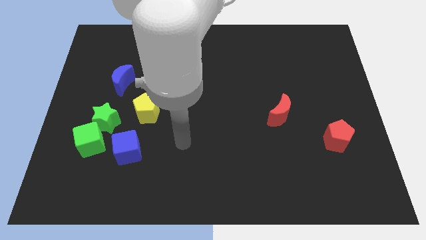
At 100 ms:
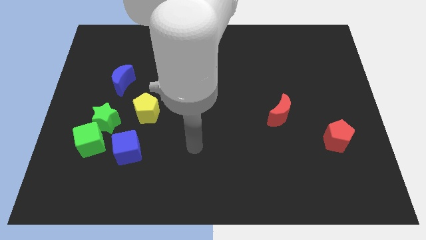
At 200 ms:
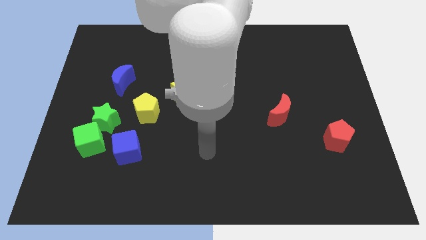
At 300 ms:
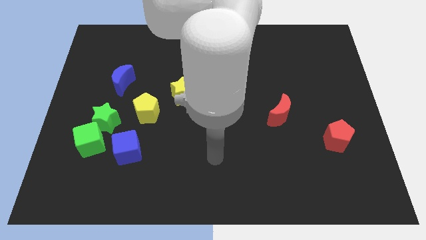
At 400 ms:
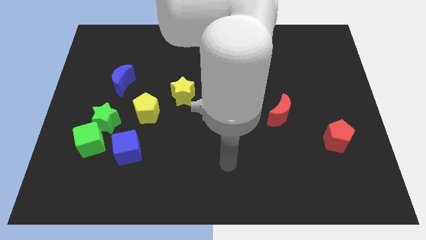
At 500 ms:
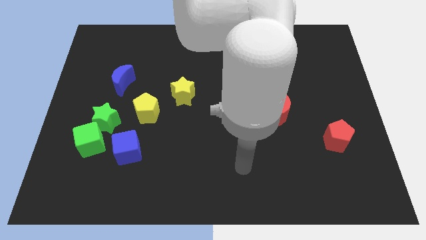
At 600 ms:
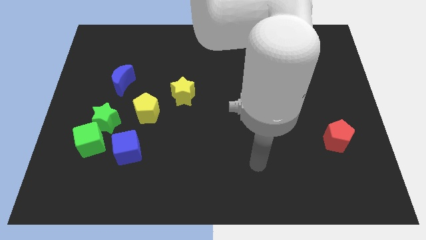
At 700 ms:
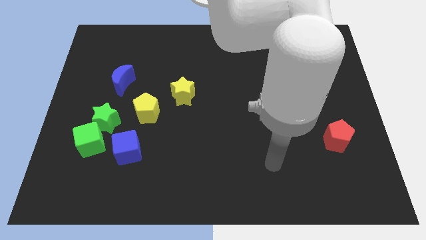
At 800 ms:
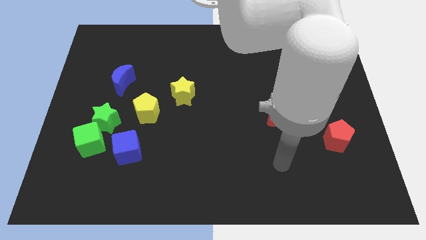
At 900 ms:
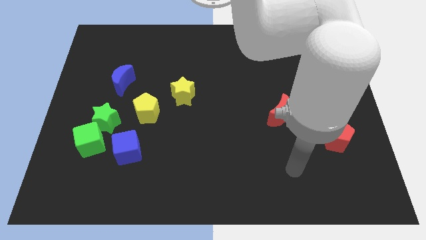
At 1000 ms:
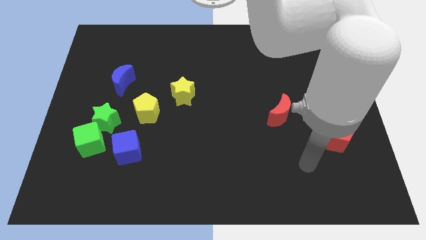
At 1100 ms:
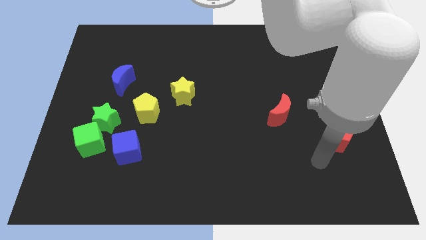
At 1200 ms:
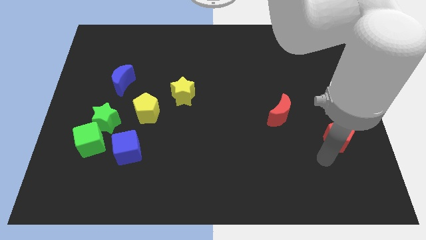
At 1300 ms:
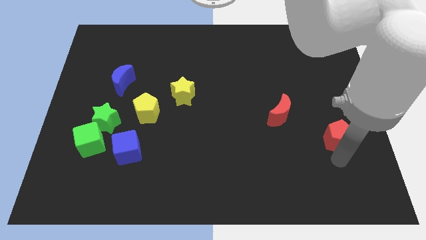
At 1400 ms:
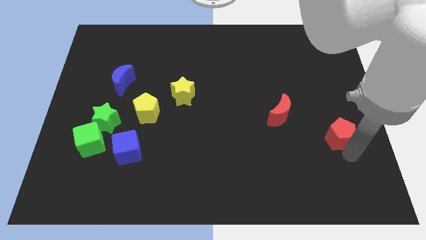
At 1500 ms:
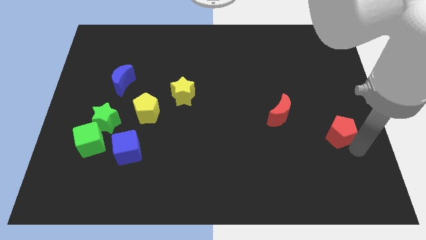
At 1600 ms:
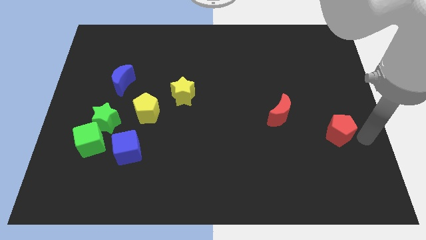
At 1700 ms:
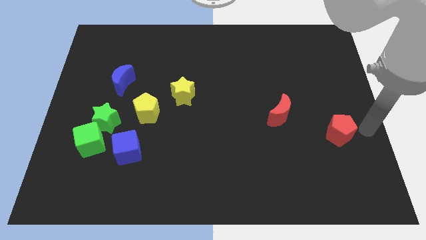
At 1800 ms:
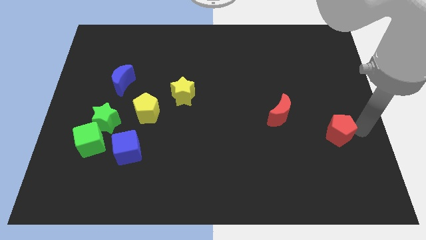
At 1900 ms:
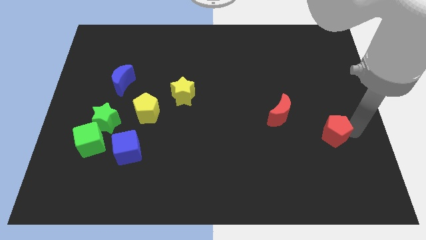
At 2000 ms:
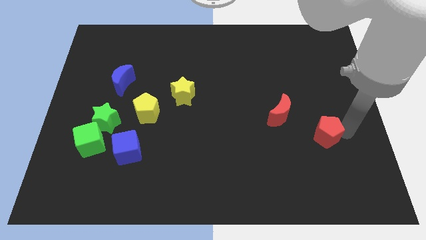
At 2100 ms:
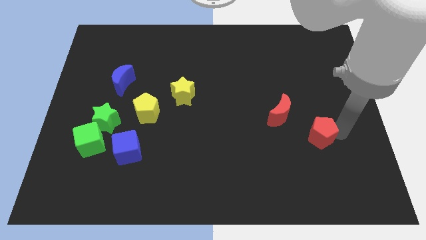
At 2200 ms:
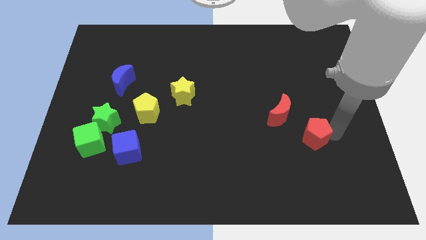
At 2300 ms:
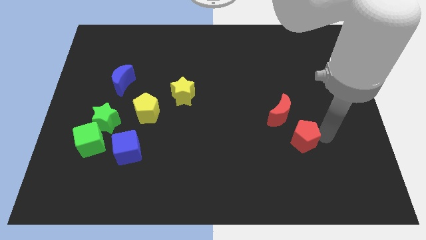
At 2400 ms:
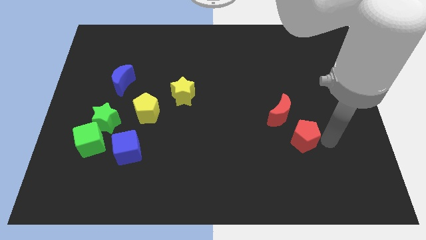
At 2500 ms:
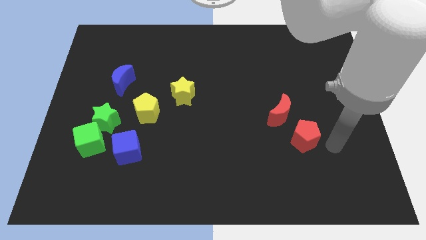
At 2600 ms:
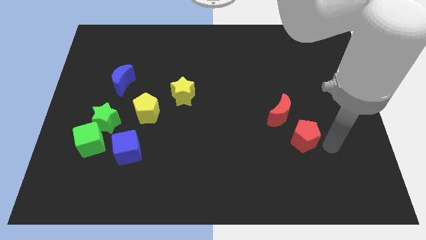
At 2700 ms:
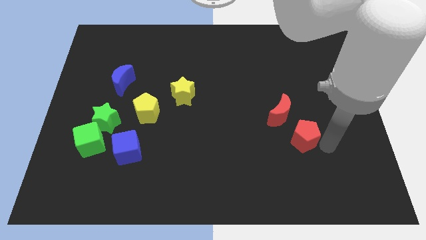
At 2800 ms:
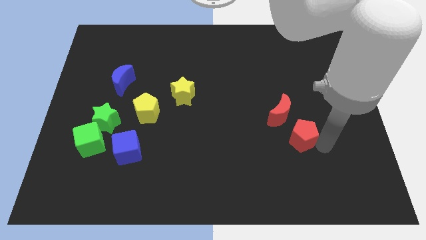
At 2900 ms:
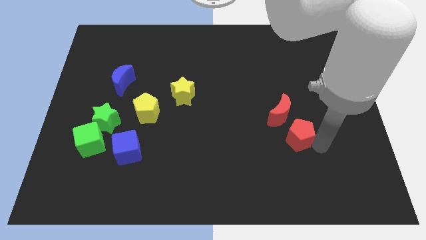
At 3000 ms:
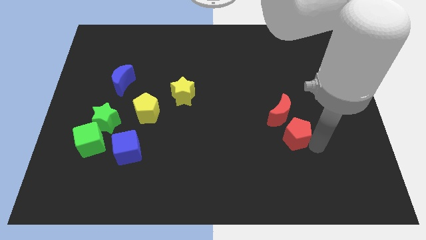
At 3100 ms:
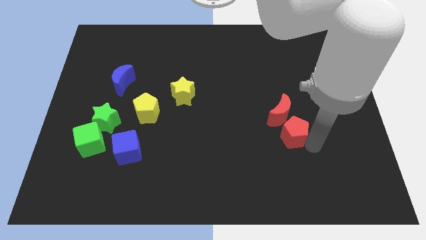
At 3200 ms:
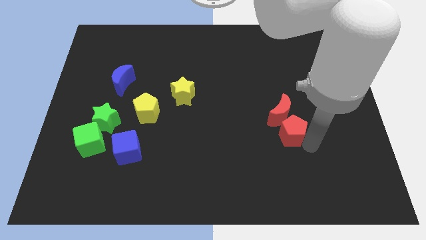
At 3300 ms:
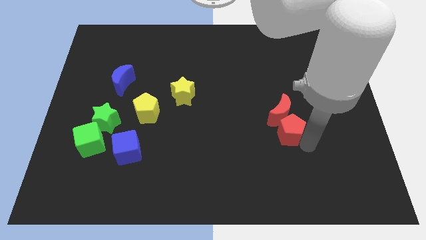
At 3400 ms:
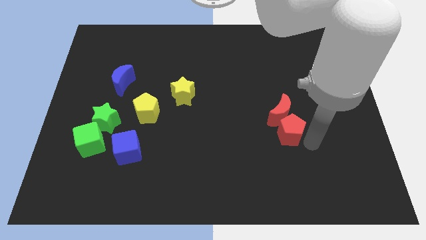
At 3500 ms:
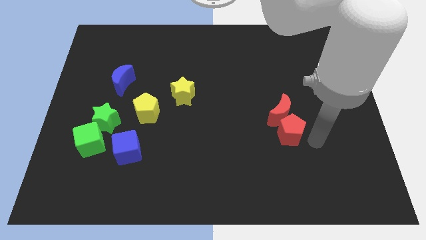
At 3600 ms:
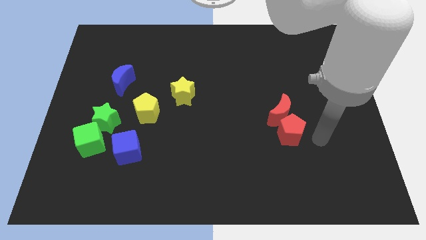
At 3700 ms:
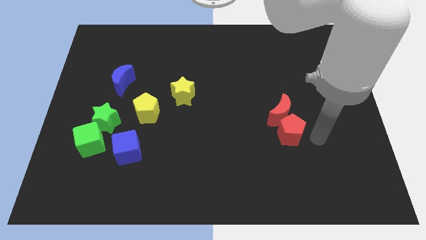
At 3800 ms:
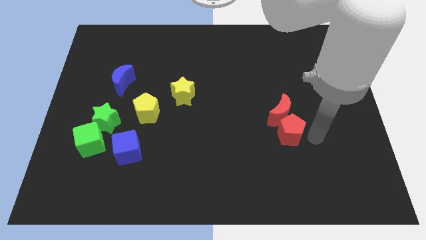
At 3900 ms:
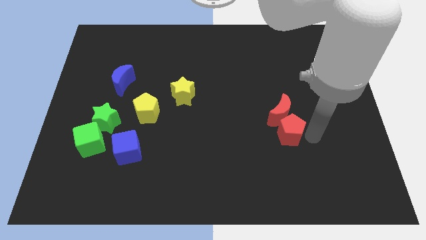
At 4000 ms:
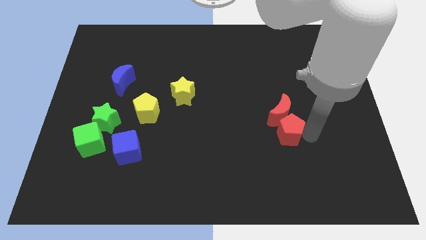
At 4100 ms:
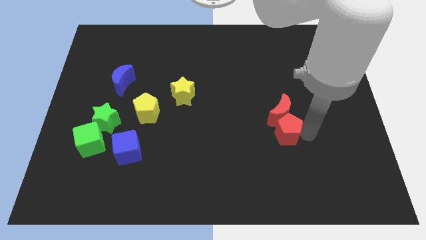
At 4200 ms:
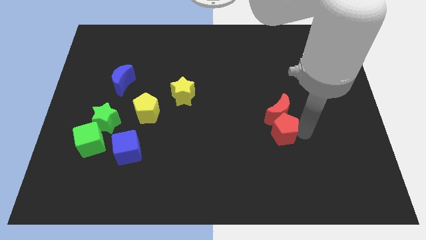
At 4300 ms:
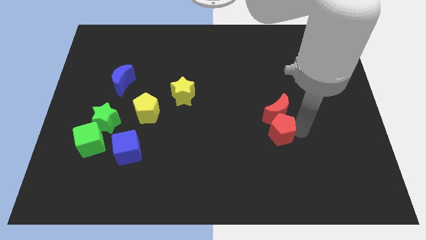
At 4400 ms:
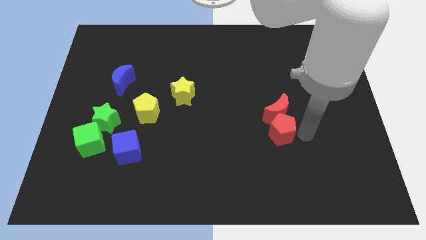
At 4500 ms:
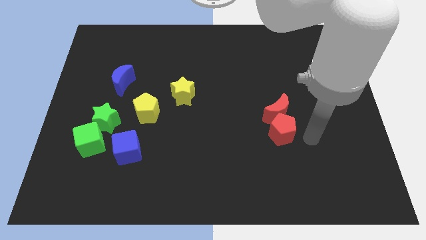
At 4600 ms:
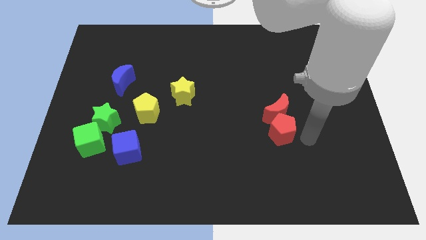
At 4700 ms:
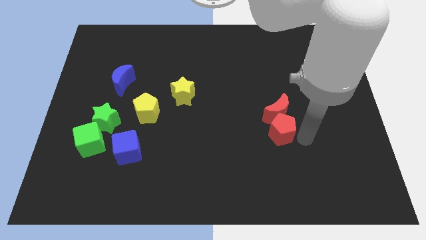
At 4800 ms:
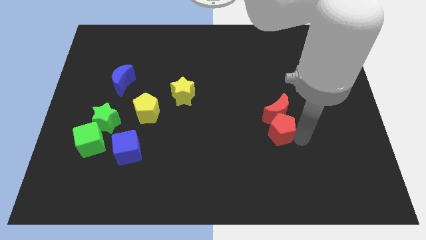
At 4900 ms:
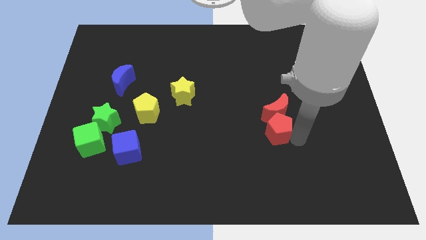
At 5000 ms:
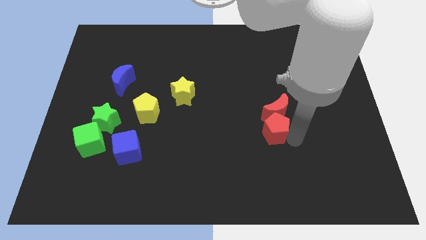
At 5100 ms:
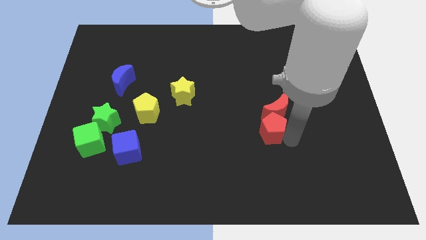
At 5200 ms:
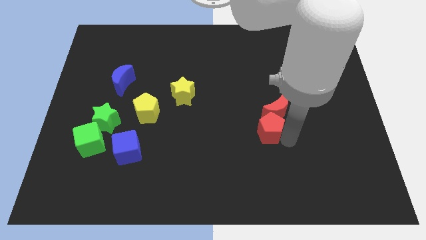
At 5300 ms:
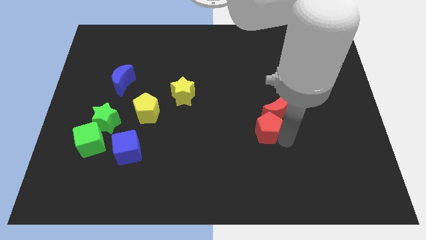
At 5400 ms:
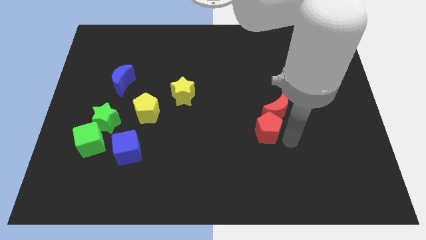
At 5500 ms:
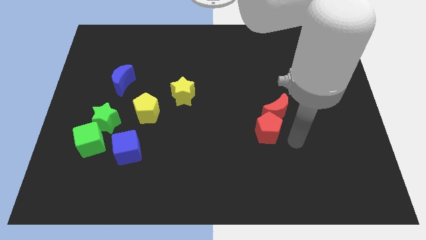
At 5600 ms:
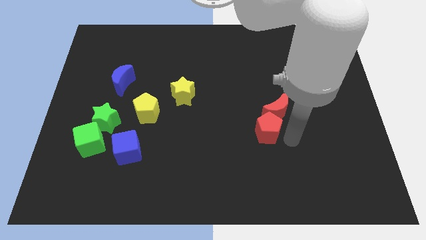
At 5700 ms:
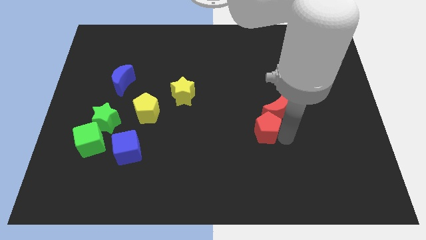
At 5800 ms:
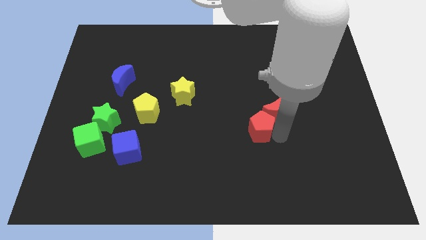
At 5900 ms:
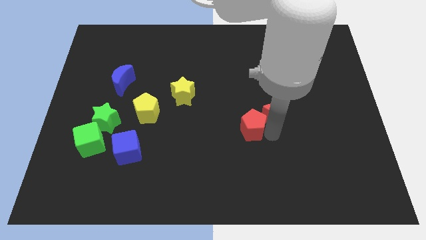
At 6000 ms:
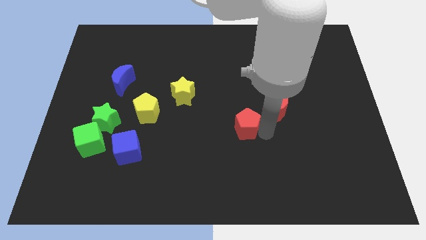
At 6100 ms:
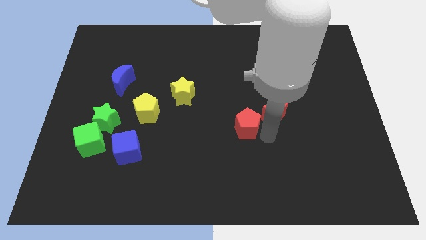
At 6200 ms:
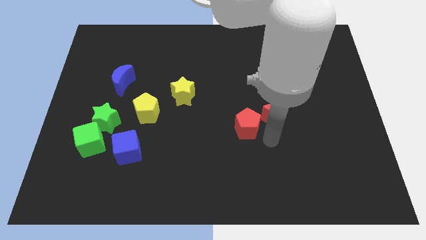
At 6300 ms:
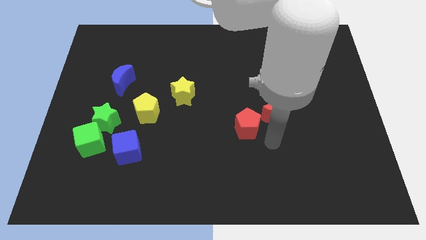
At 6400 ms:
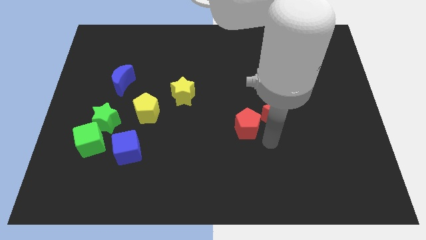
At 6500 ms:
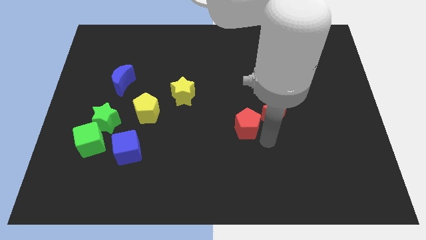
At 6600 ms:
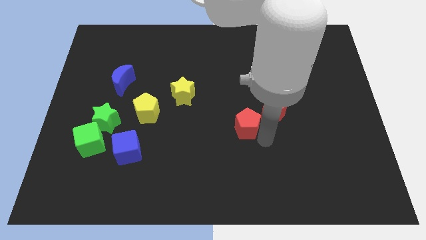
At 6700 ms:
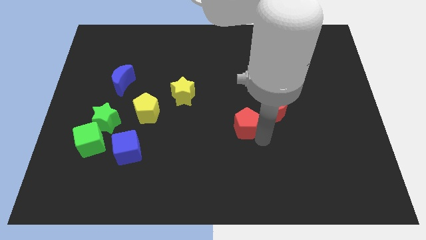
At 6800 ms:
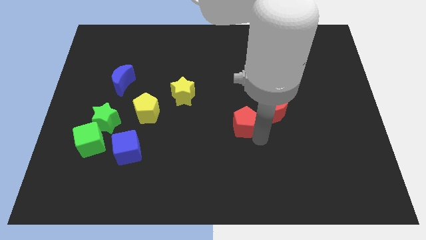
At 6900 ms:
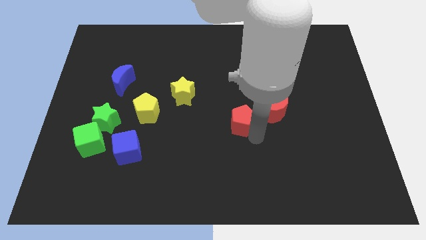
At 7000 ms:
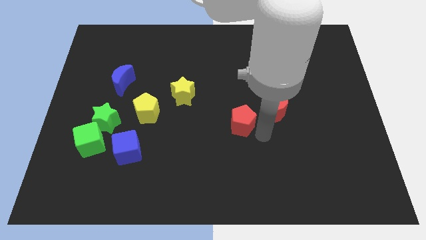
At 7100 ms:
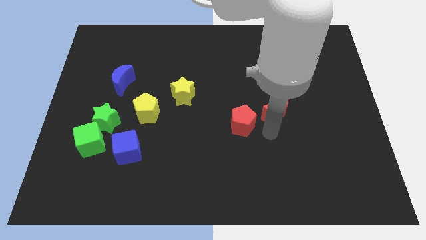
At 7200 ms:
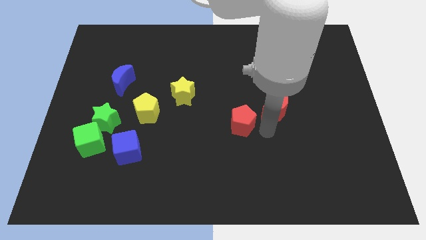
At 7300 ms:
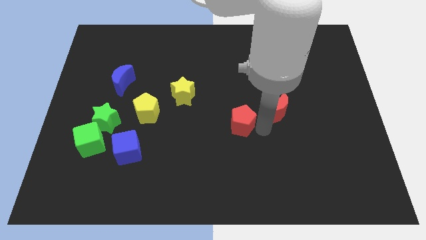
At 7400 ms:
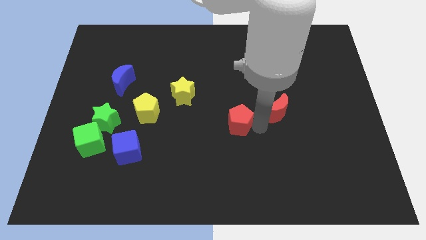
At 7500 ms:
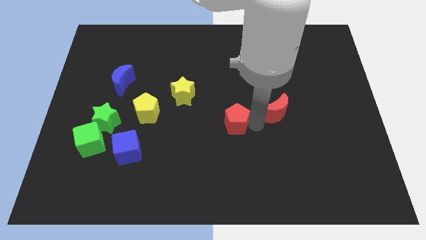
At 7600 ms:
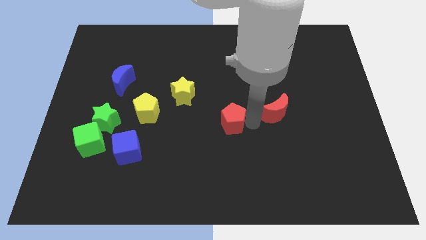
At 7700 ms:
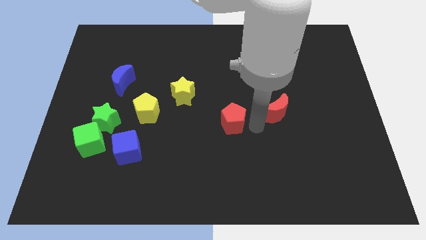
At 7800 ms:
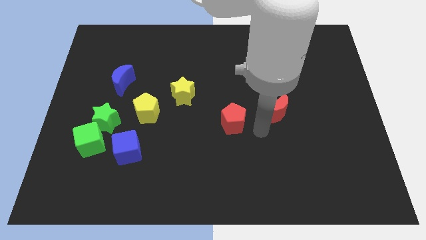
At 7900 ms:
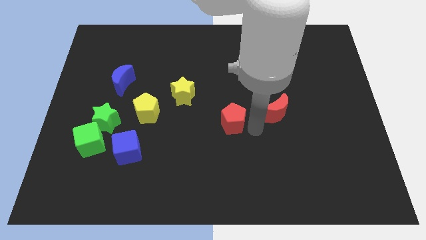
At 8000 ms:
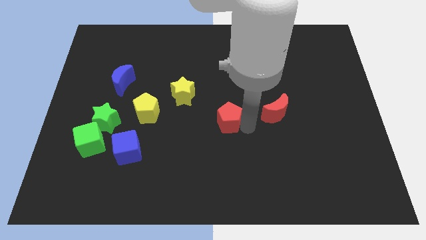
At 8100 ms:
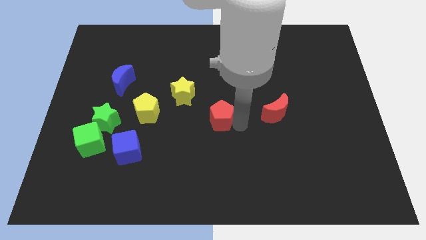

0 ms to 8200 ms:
push the red pentagon to the bottom right of the yellow star
